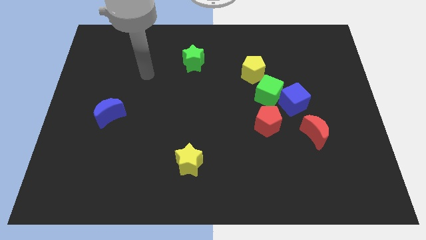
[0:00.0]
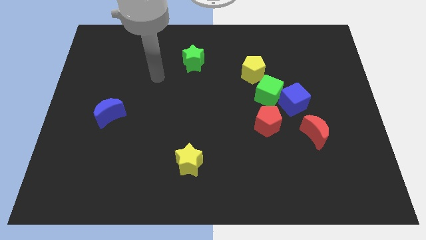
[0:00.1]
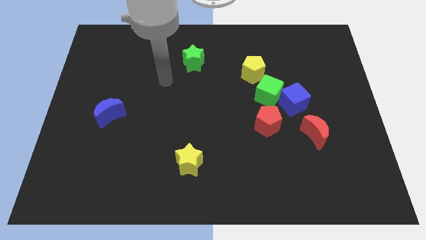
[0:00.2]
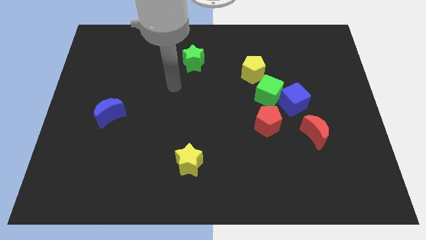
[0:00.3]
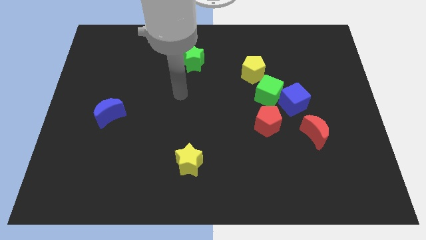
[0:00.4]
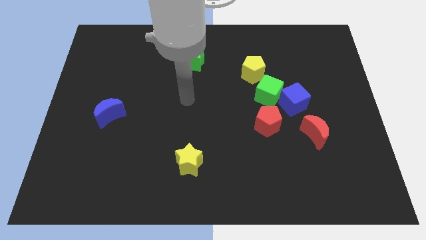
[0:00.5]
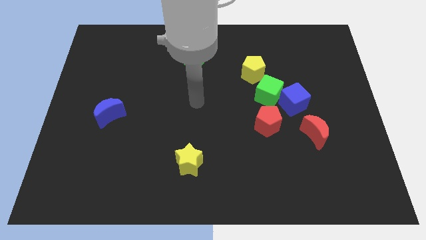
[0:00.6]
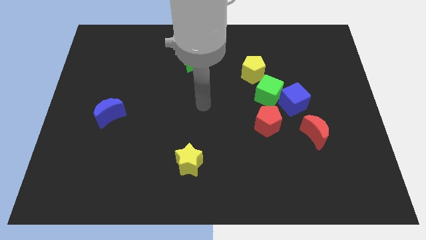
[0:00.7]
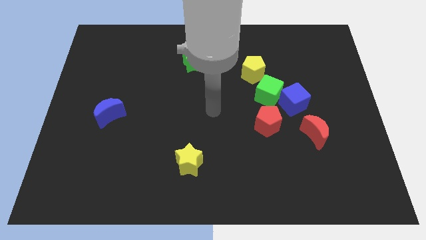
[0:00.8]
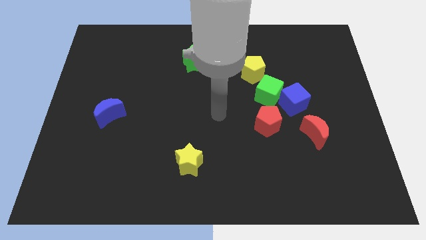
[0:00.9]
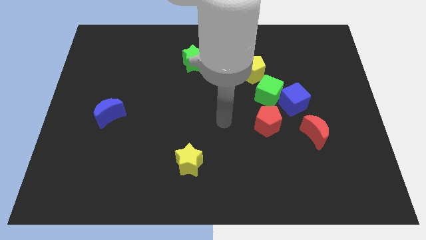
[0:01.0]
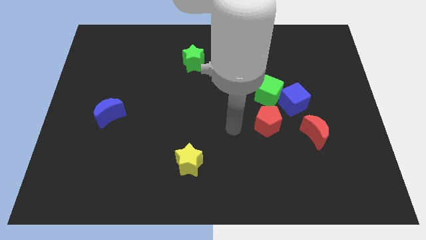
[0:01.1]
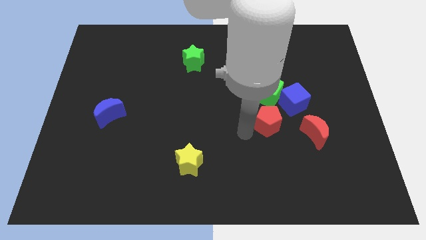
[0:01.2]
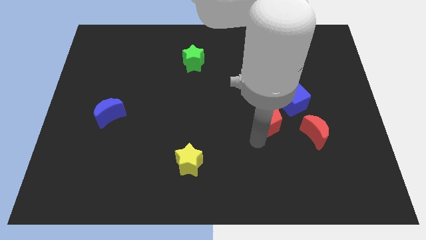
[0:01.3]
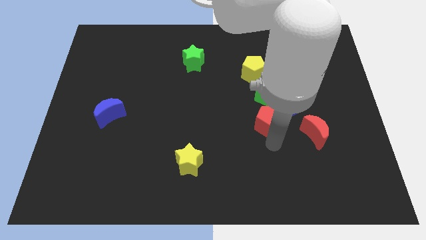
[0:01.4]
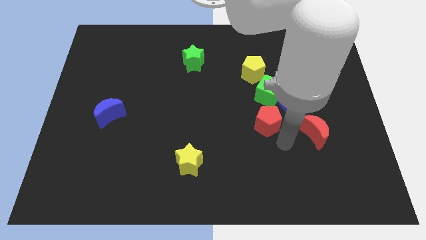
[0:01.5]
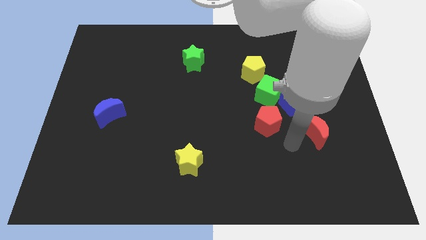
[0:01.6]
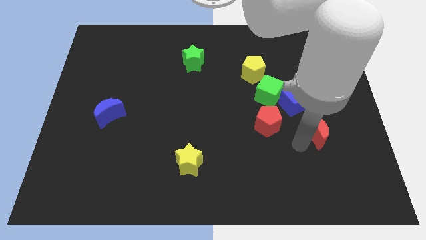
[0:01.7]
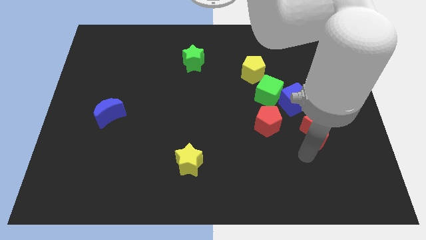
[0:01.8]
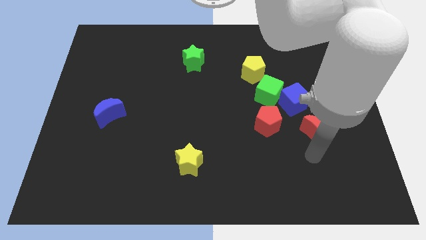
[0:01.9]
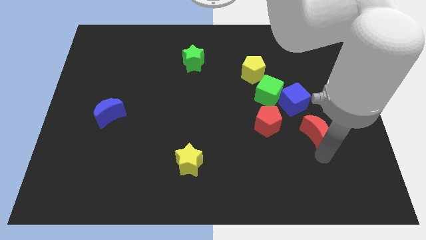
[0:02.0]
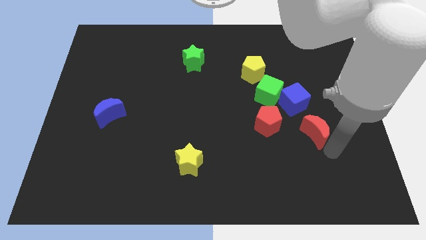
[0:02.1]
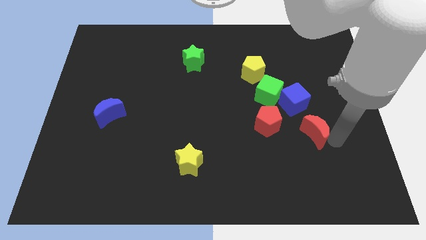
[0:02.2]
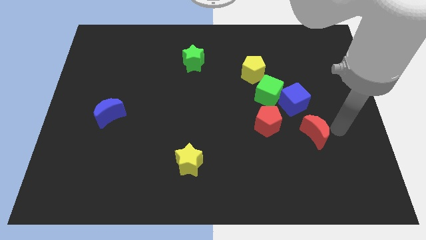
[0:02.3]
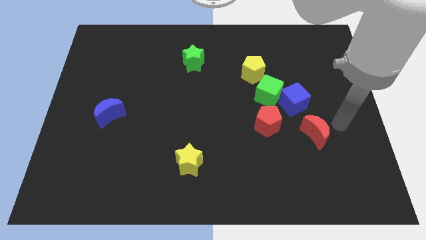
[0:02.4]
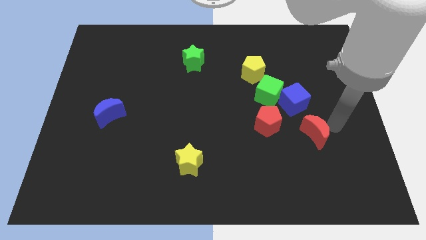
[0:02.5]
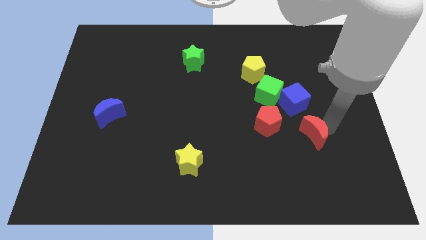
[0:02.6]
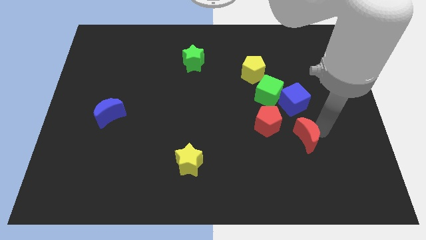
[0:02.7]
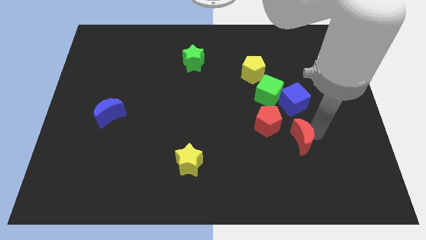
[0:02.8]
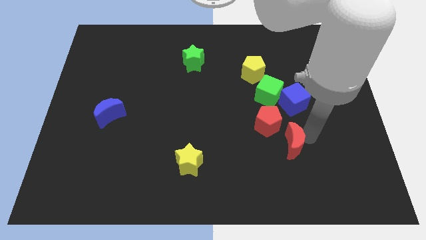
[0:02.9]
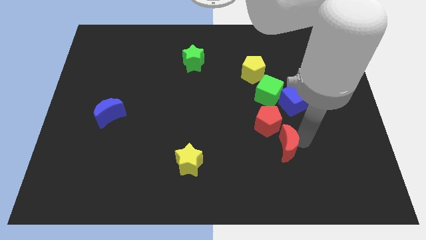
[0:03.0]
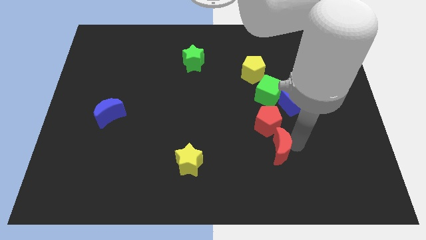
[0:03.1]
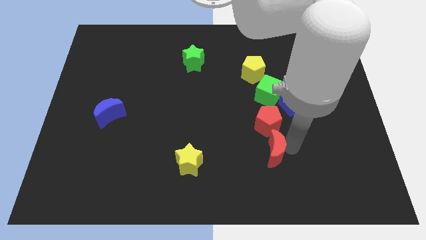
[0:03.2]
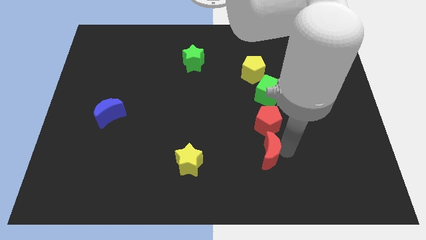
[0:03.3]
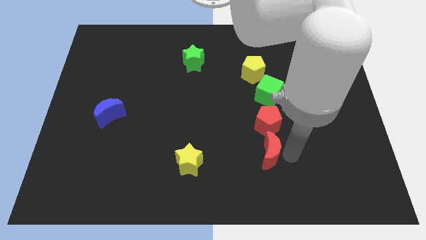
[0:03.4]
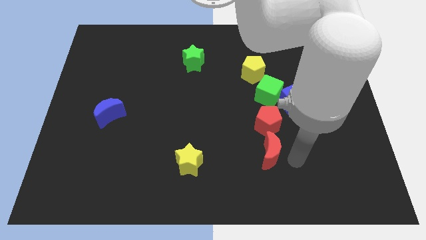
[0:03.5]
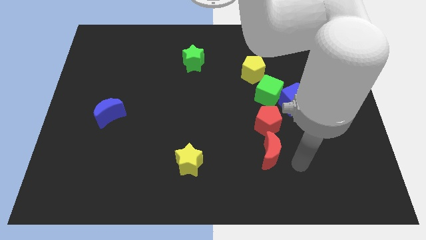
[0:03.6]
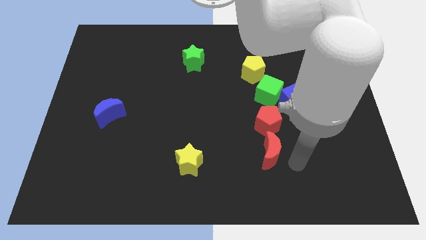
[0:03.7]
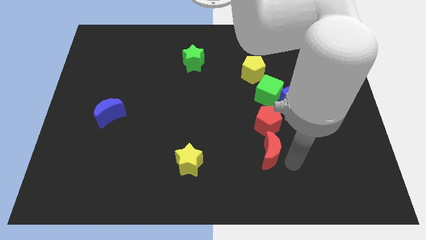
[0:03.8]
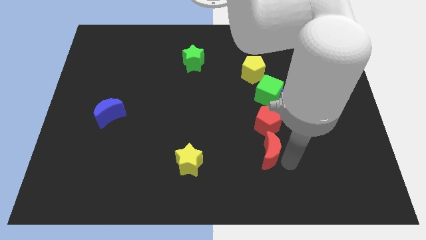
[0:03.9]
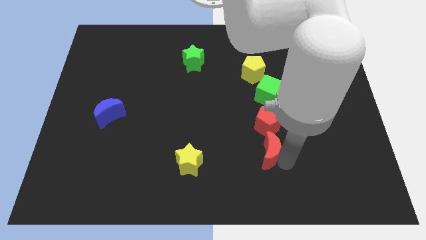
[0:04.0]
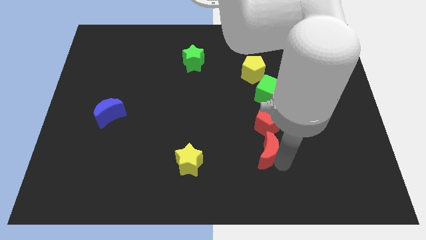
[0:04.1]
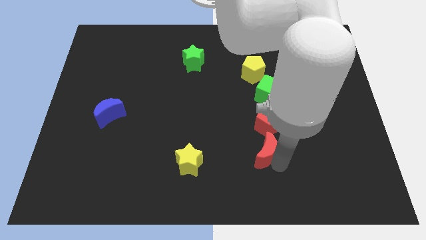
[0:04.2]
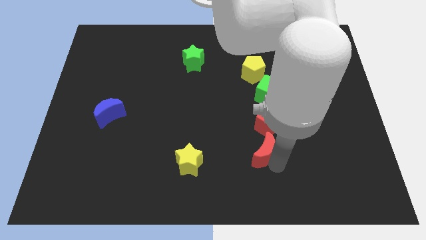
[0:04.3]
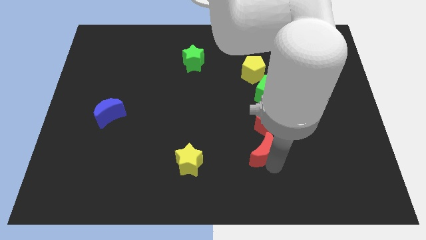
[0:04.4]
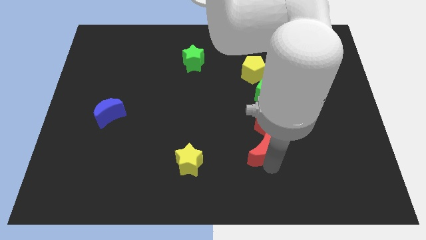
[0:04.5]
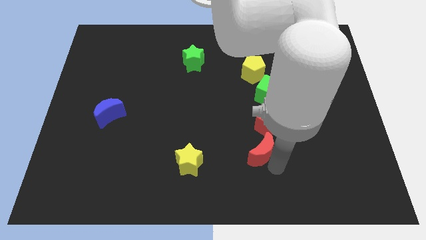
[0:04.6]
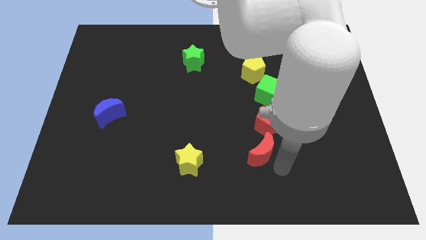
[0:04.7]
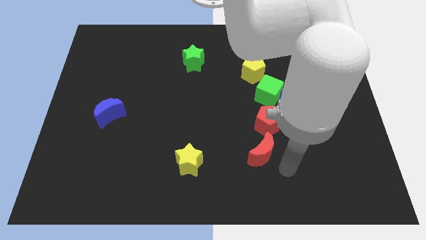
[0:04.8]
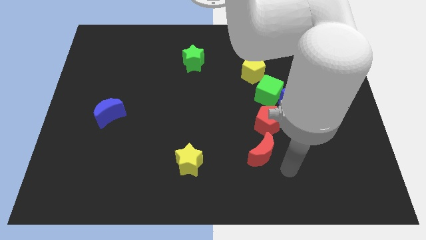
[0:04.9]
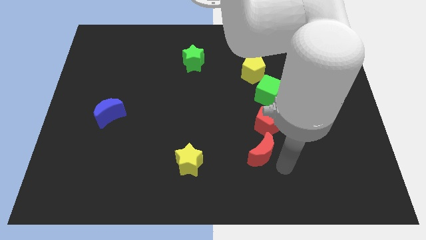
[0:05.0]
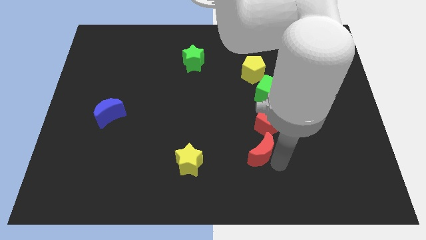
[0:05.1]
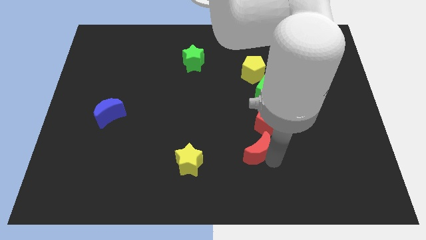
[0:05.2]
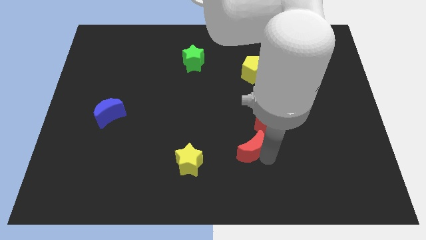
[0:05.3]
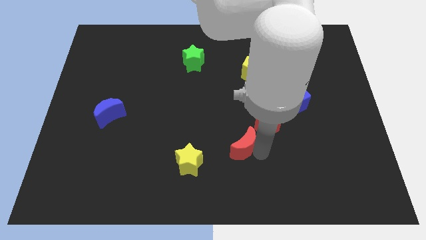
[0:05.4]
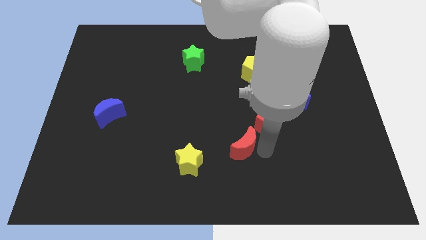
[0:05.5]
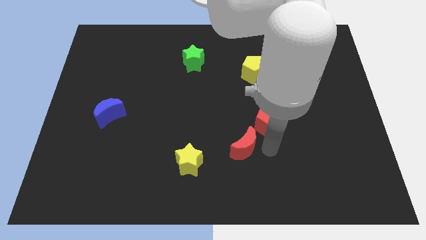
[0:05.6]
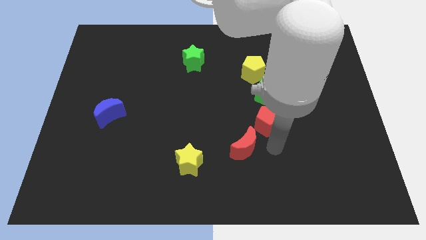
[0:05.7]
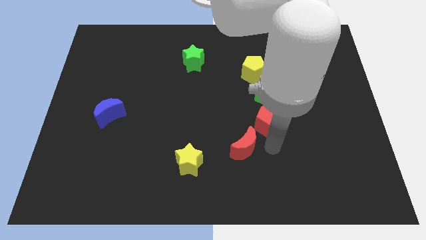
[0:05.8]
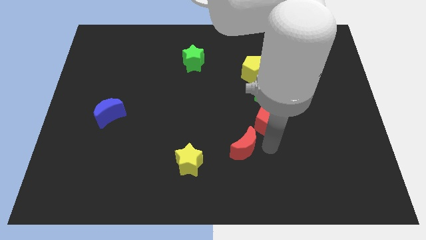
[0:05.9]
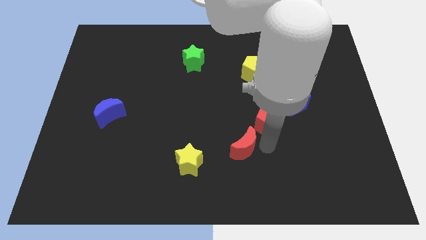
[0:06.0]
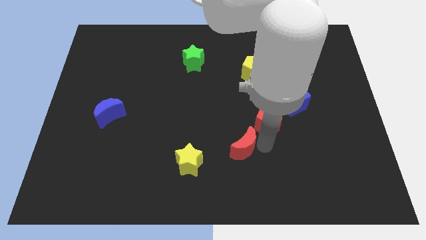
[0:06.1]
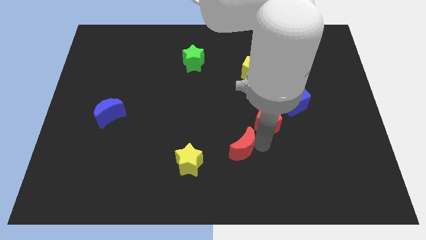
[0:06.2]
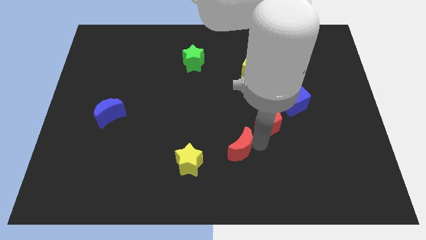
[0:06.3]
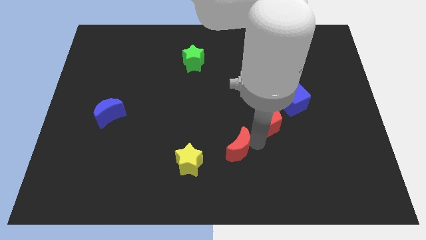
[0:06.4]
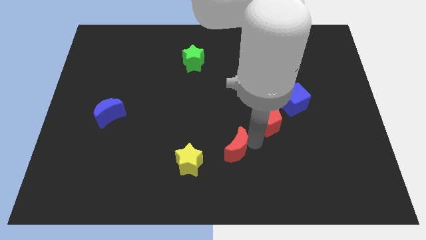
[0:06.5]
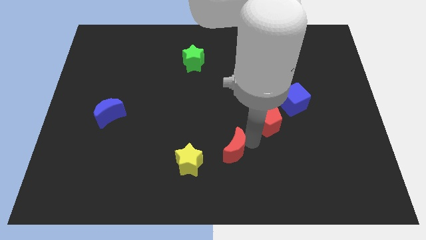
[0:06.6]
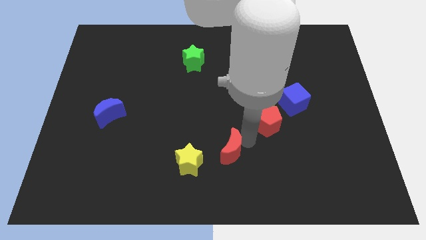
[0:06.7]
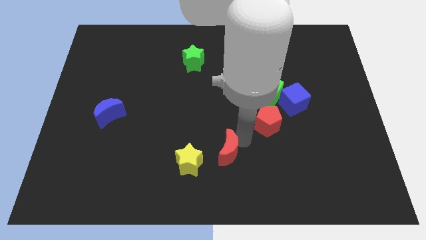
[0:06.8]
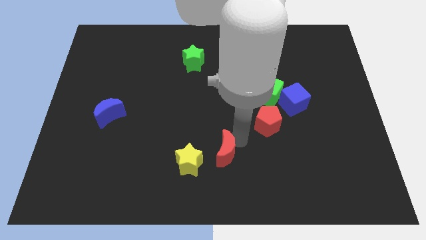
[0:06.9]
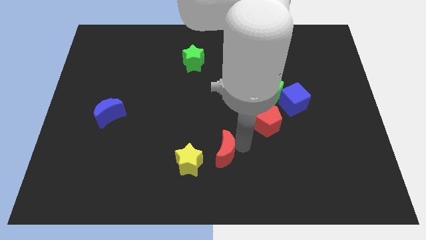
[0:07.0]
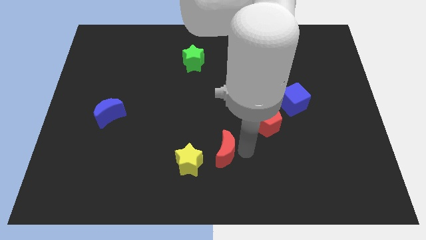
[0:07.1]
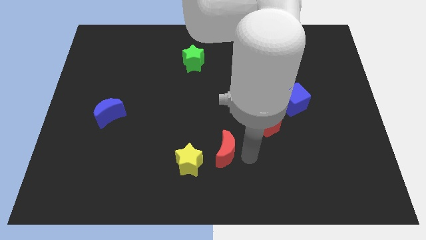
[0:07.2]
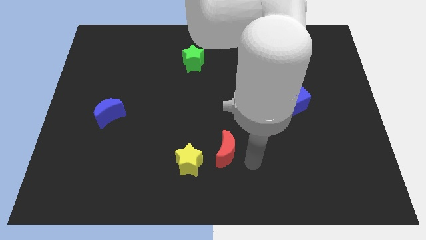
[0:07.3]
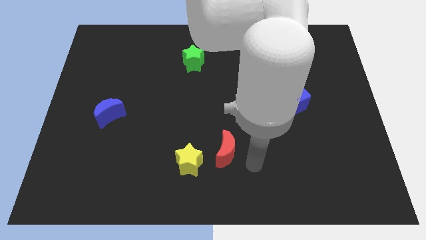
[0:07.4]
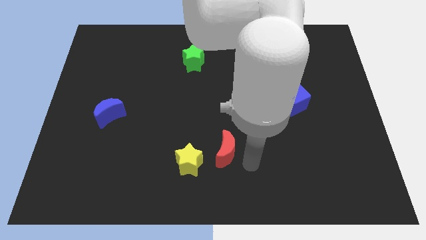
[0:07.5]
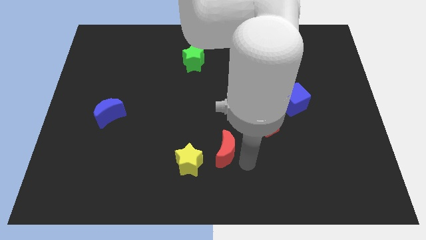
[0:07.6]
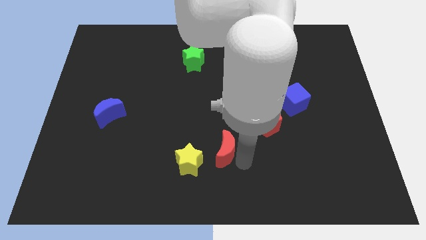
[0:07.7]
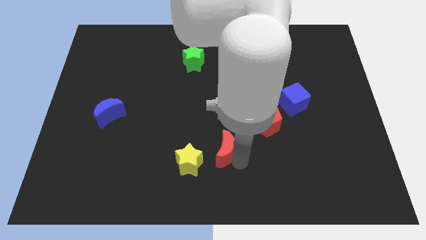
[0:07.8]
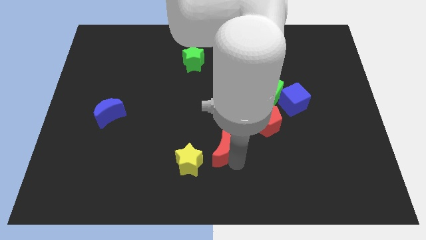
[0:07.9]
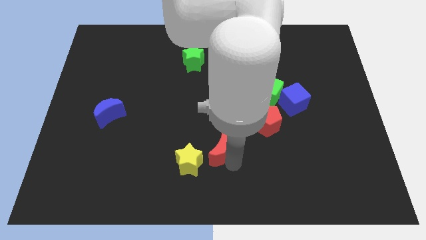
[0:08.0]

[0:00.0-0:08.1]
push the red moon to the left

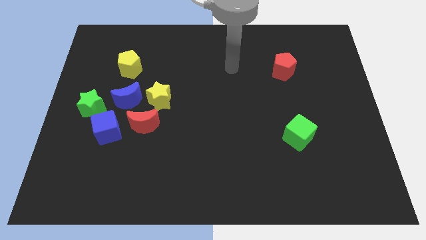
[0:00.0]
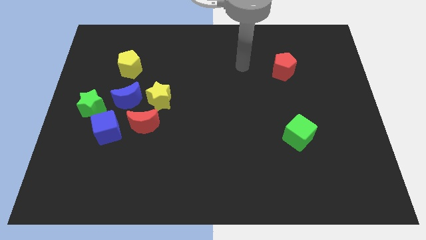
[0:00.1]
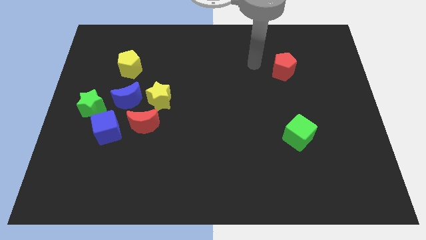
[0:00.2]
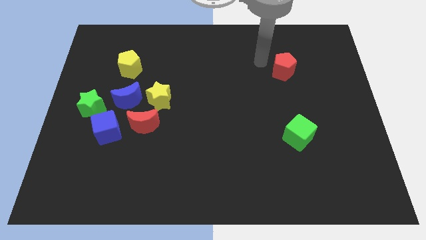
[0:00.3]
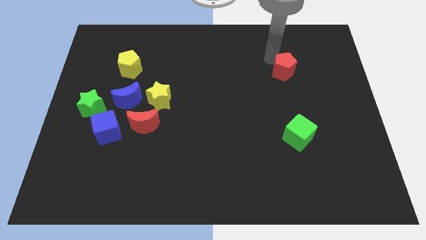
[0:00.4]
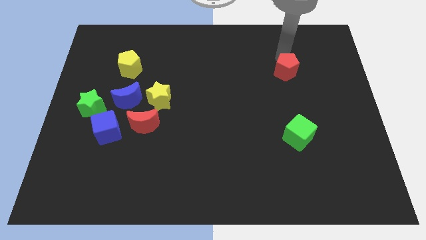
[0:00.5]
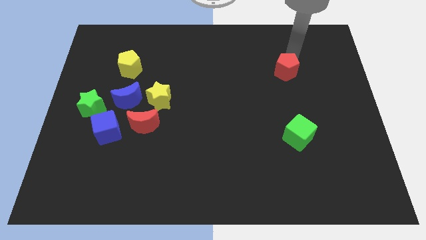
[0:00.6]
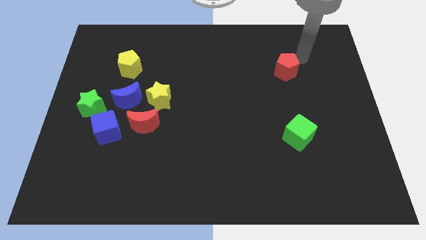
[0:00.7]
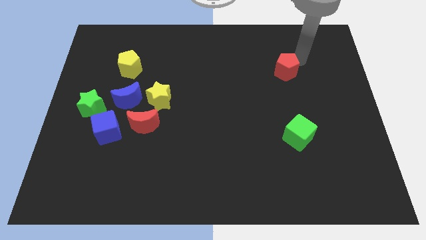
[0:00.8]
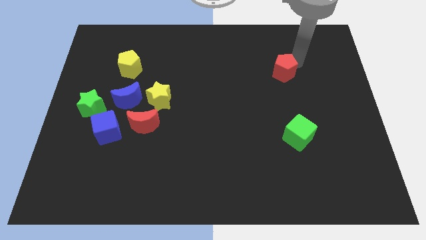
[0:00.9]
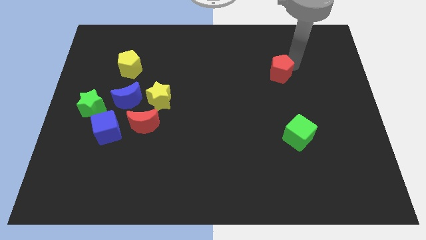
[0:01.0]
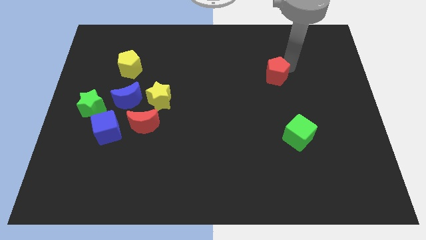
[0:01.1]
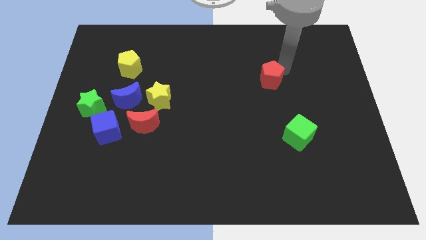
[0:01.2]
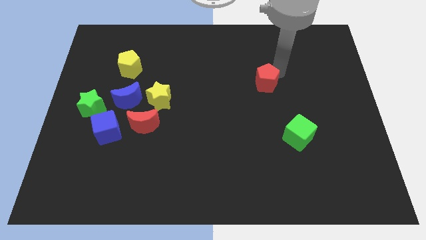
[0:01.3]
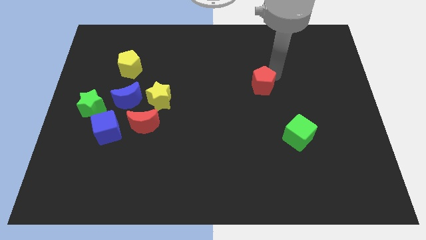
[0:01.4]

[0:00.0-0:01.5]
move the red pentagon downwards and to the left diagonally slightly
